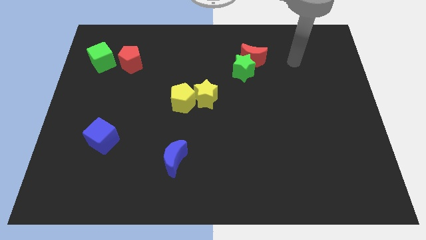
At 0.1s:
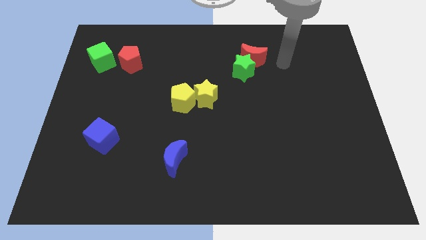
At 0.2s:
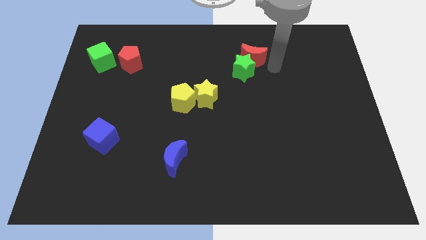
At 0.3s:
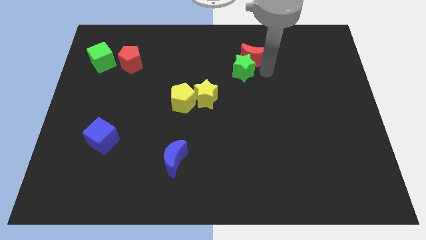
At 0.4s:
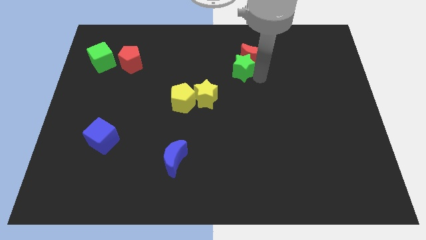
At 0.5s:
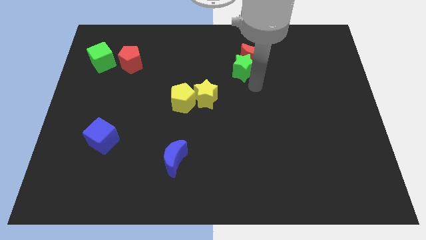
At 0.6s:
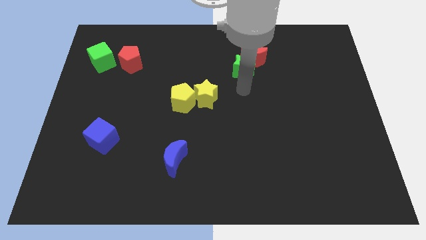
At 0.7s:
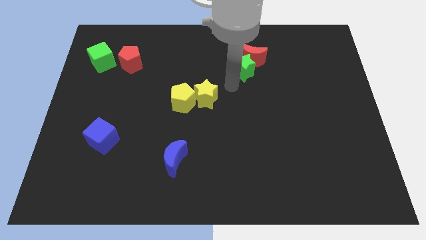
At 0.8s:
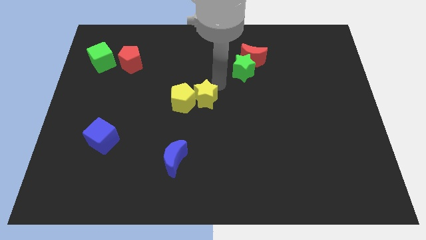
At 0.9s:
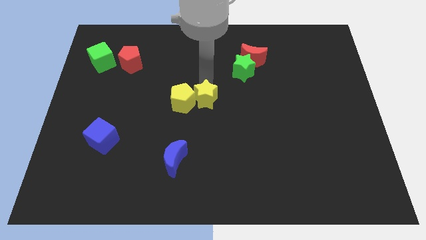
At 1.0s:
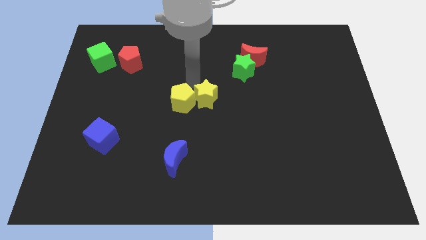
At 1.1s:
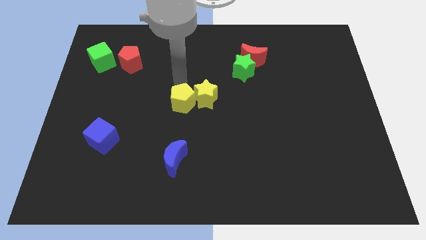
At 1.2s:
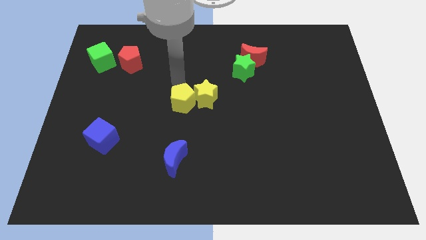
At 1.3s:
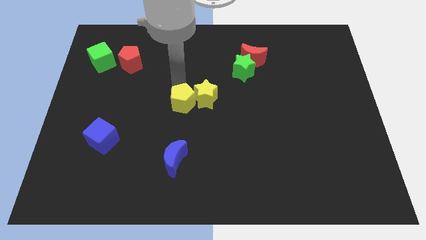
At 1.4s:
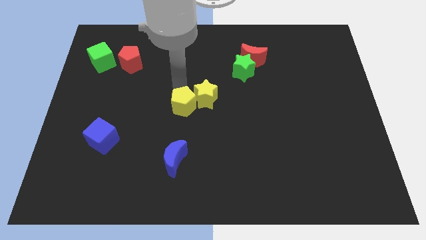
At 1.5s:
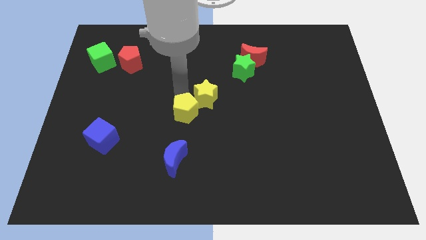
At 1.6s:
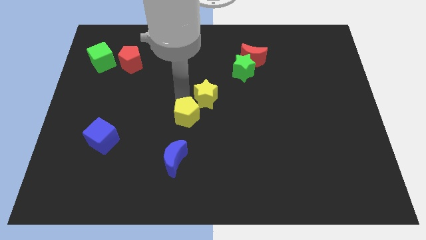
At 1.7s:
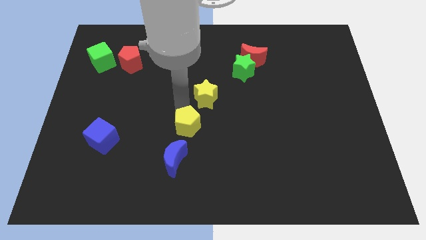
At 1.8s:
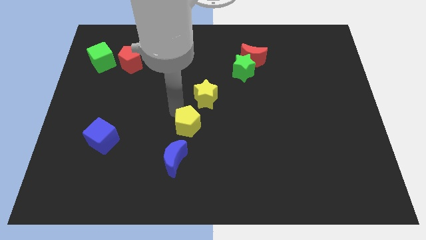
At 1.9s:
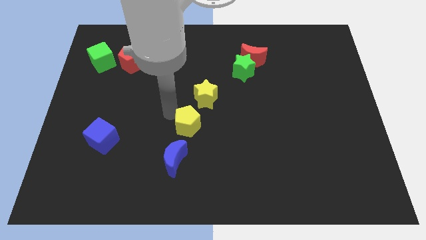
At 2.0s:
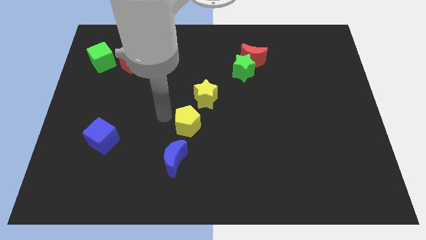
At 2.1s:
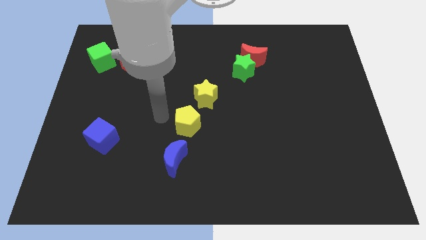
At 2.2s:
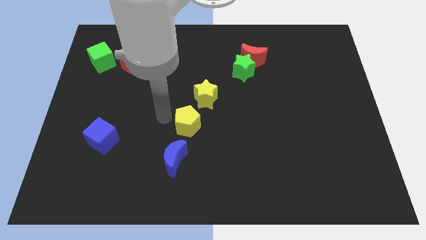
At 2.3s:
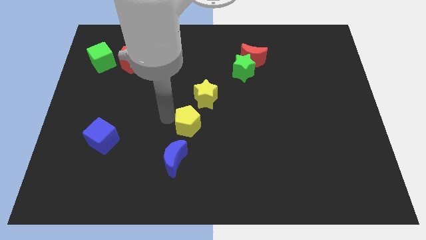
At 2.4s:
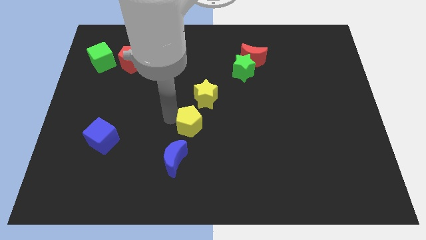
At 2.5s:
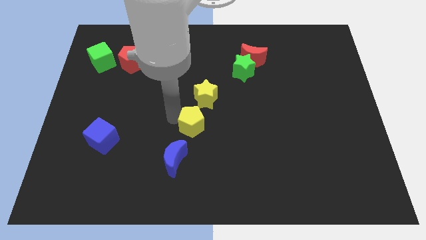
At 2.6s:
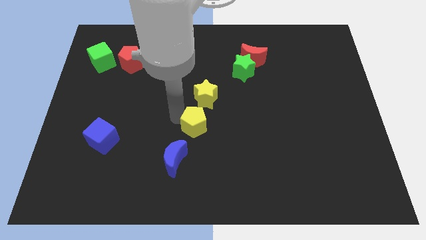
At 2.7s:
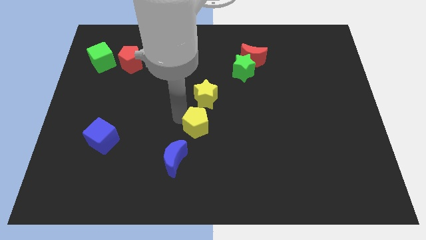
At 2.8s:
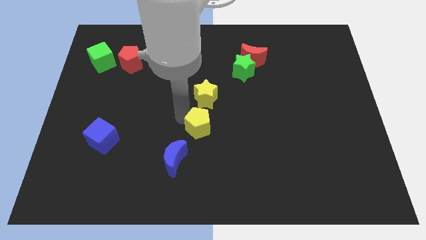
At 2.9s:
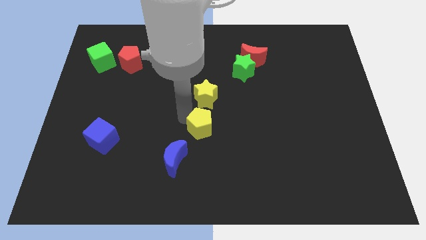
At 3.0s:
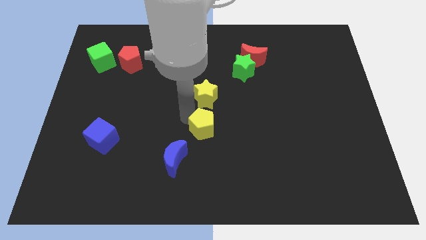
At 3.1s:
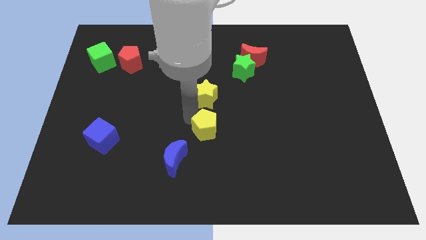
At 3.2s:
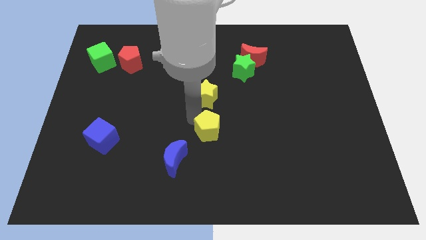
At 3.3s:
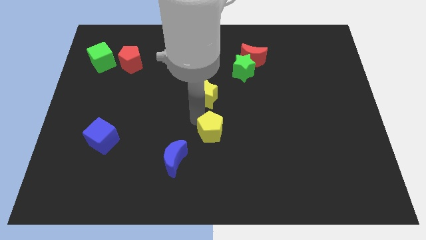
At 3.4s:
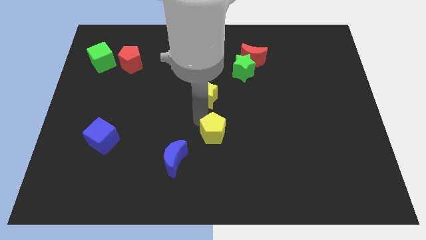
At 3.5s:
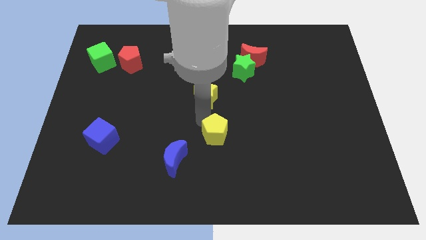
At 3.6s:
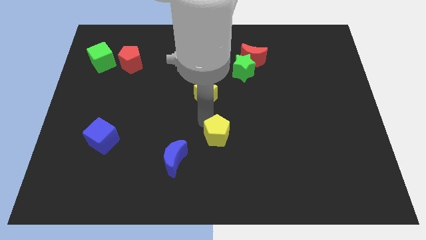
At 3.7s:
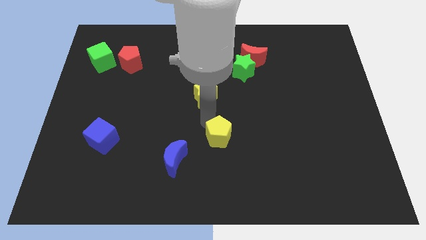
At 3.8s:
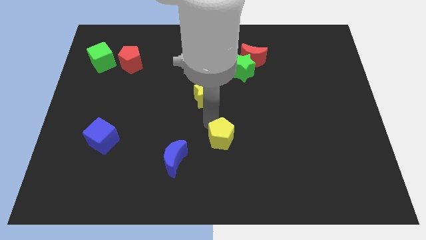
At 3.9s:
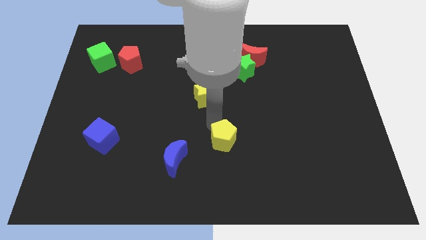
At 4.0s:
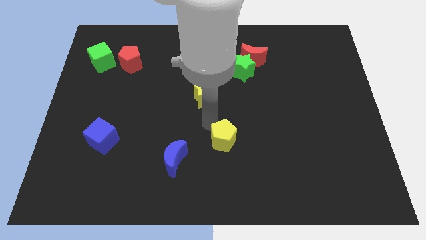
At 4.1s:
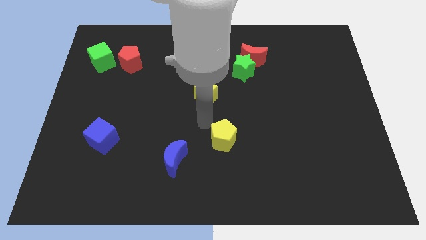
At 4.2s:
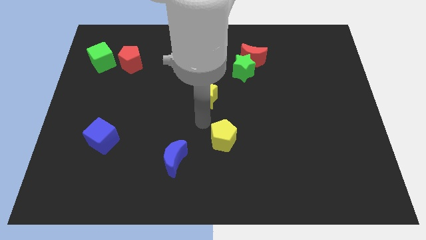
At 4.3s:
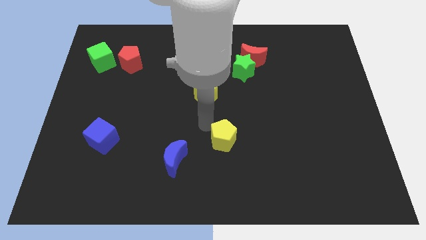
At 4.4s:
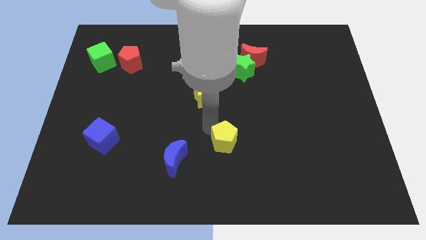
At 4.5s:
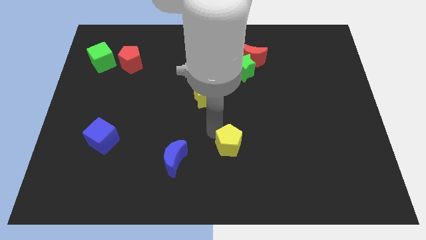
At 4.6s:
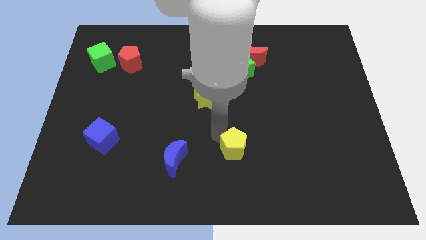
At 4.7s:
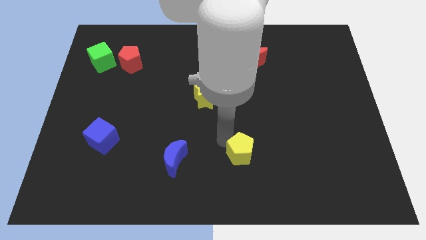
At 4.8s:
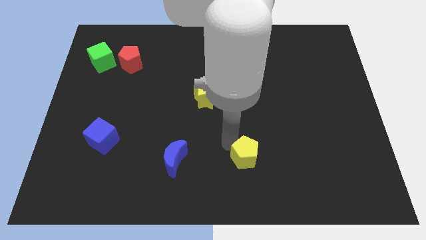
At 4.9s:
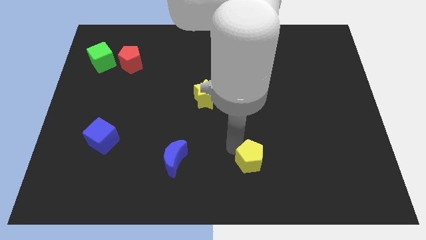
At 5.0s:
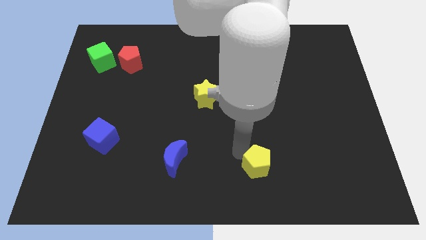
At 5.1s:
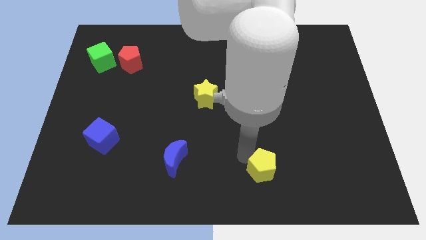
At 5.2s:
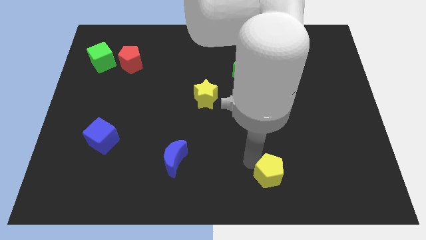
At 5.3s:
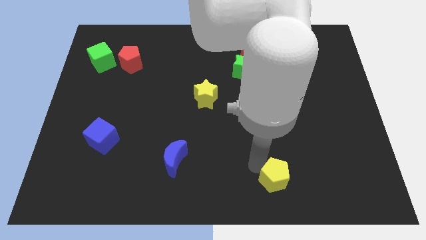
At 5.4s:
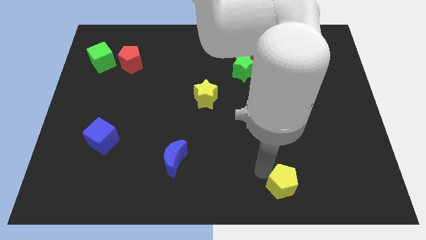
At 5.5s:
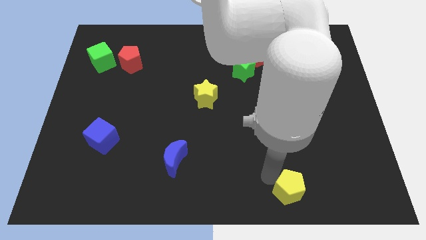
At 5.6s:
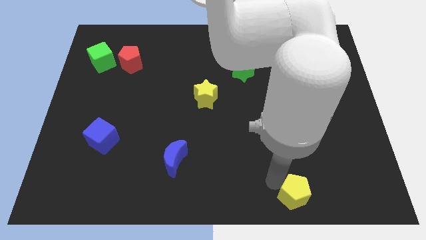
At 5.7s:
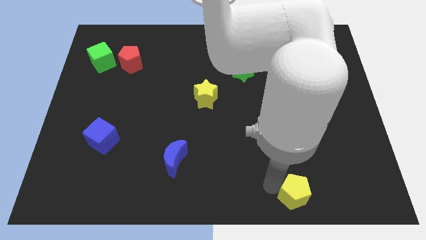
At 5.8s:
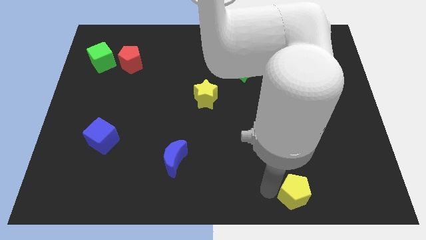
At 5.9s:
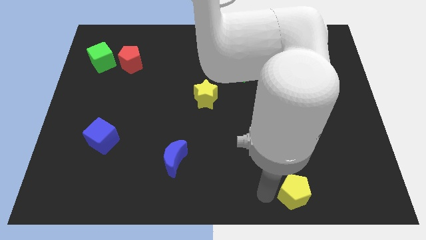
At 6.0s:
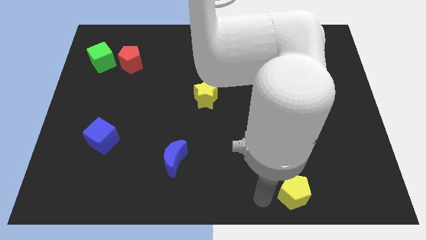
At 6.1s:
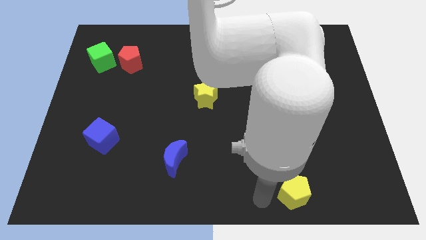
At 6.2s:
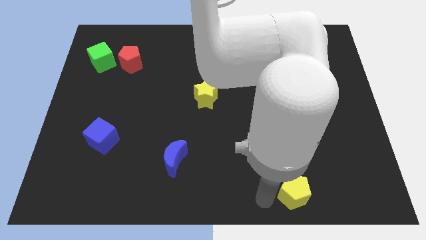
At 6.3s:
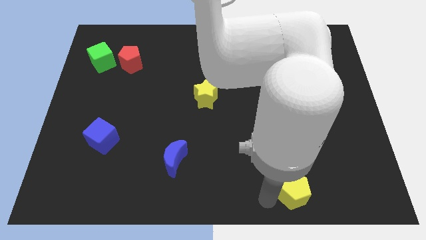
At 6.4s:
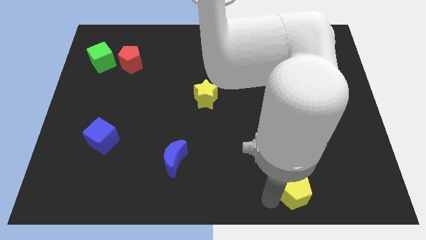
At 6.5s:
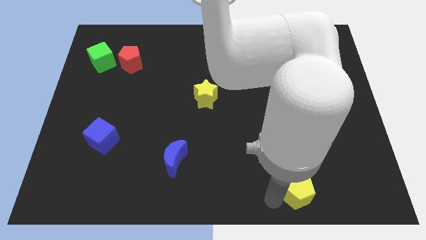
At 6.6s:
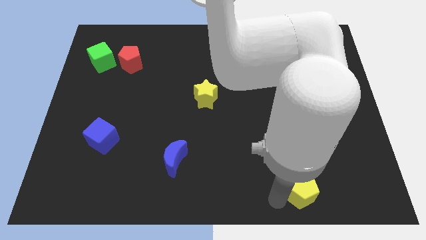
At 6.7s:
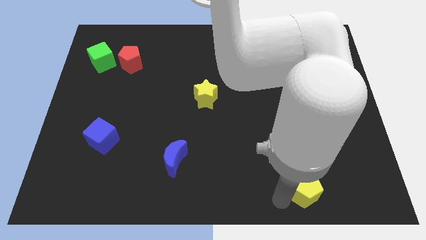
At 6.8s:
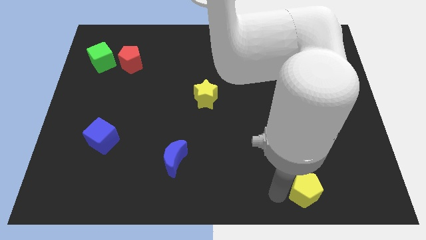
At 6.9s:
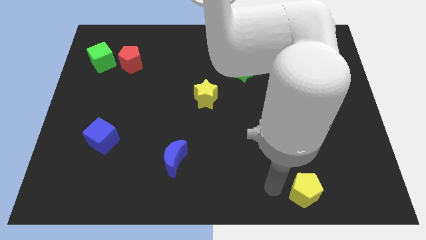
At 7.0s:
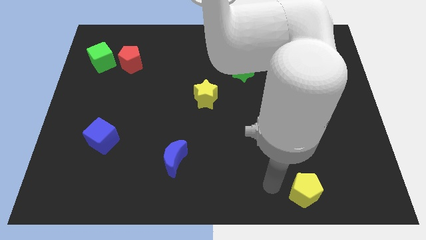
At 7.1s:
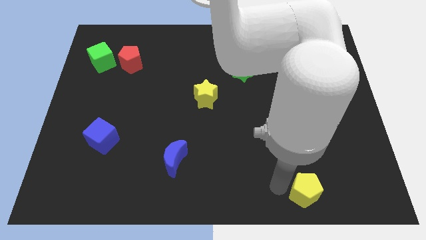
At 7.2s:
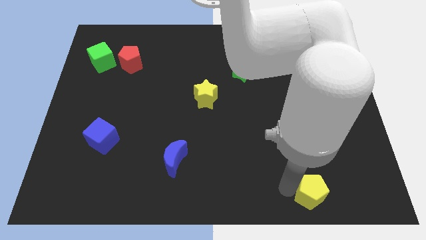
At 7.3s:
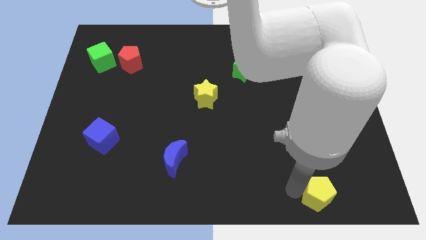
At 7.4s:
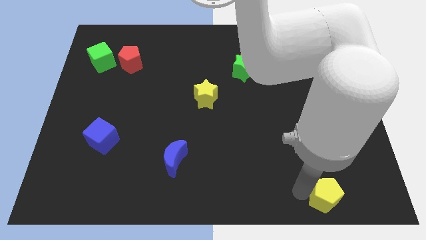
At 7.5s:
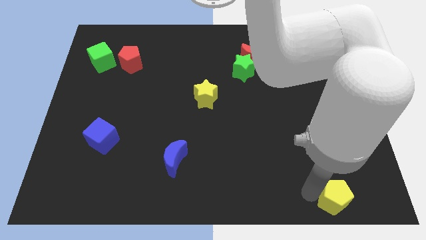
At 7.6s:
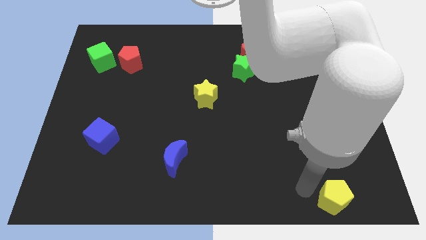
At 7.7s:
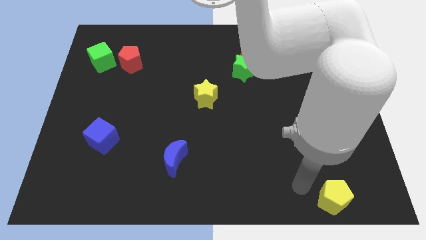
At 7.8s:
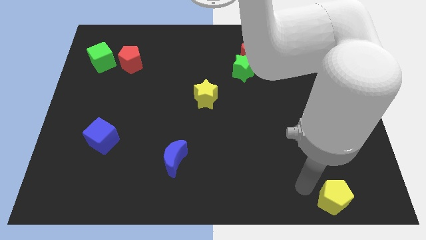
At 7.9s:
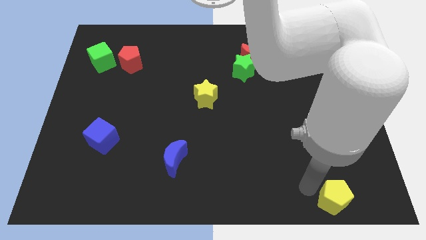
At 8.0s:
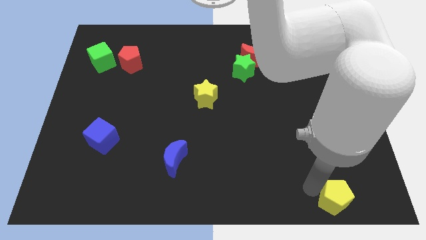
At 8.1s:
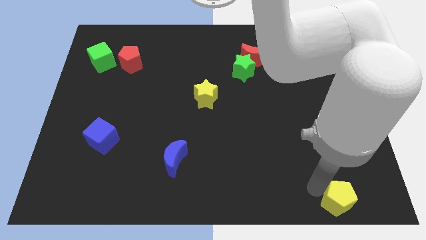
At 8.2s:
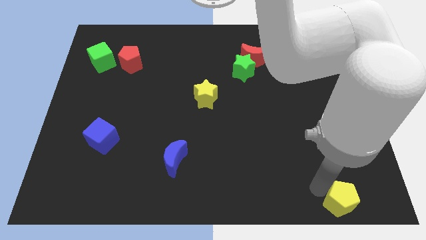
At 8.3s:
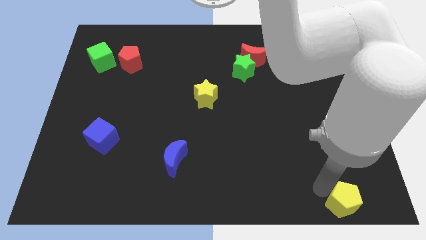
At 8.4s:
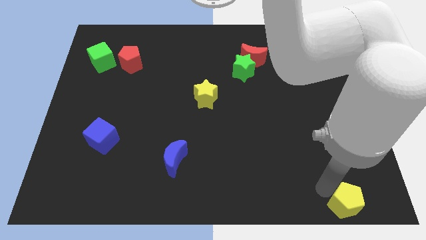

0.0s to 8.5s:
move the yellow pentagon to the bottom right corner
